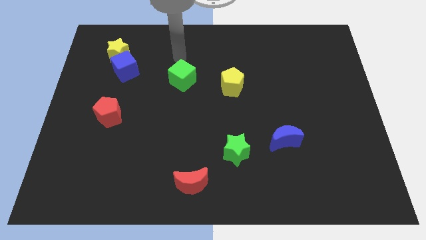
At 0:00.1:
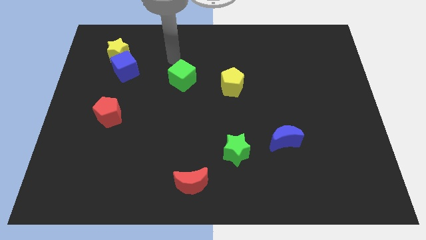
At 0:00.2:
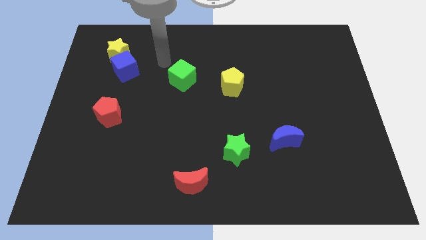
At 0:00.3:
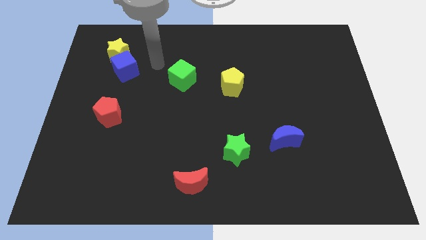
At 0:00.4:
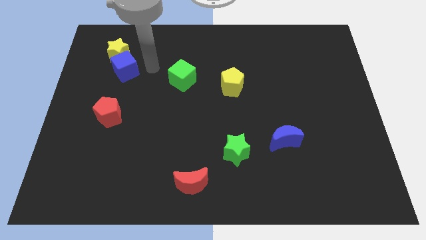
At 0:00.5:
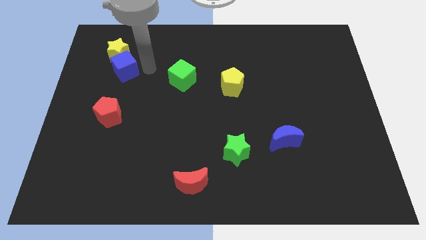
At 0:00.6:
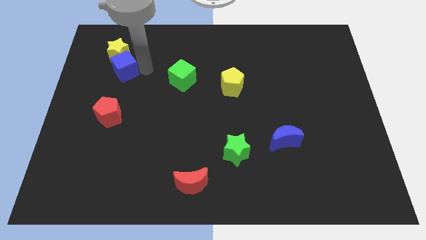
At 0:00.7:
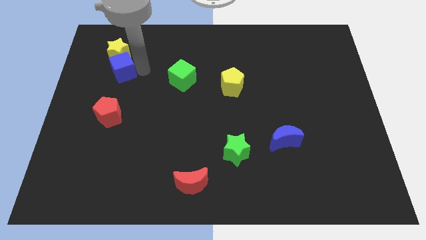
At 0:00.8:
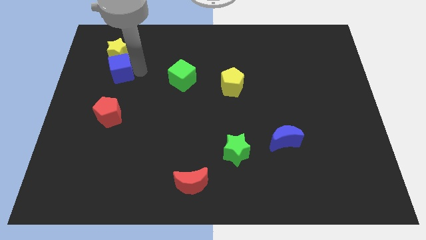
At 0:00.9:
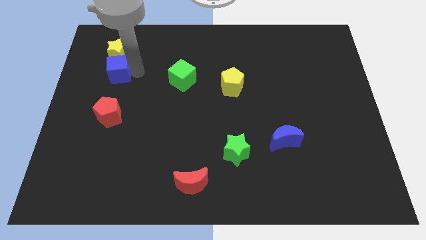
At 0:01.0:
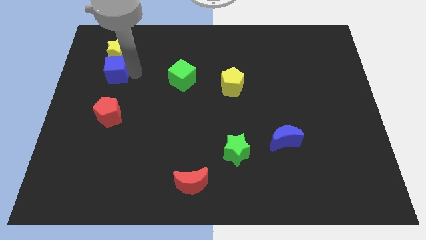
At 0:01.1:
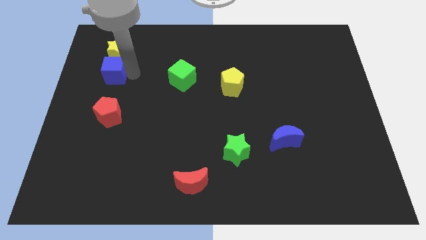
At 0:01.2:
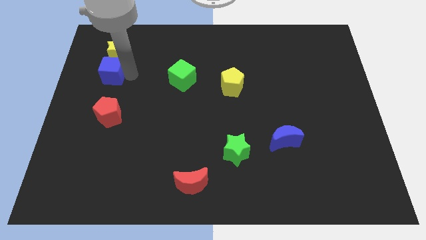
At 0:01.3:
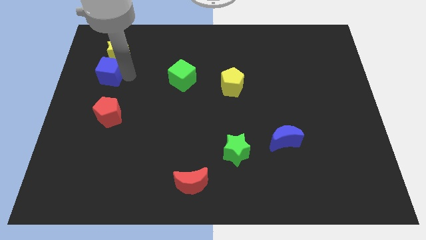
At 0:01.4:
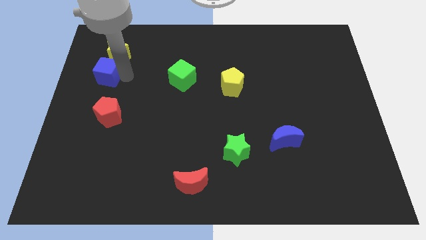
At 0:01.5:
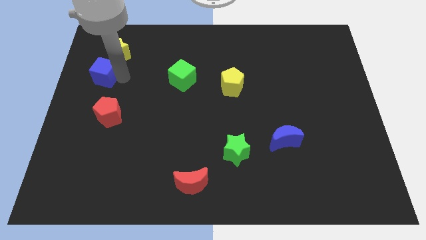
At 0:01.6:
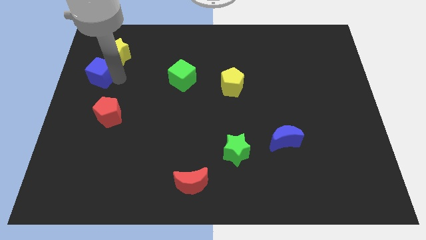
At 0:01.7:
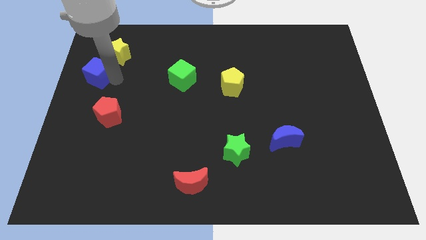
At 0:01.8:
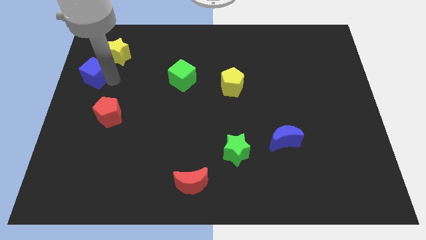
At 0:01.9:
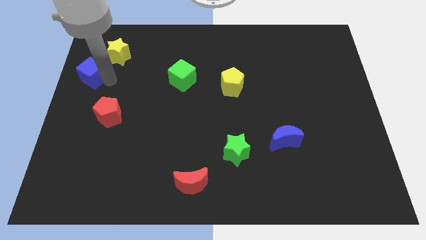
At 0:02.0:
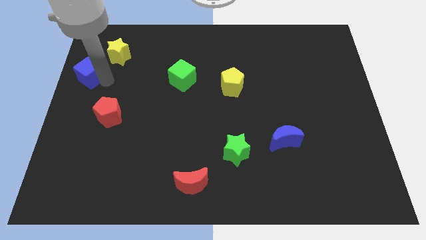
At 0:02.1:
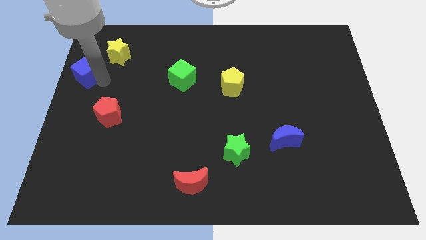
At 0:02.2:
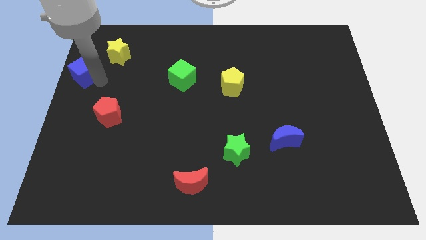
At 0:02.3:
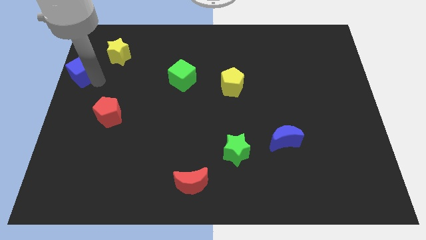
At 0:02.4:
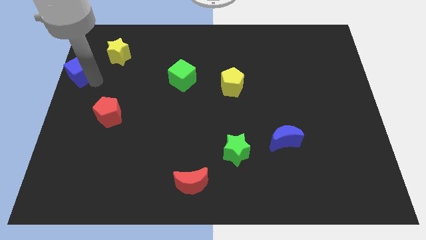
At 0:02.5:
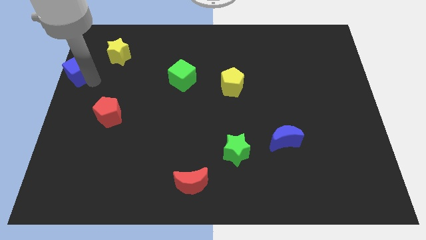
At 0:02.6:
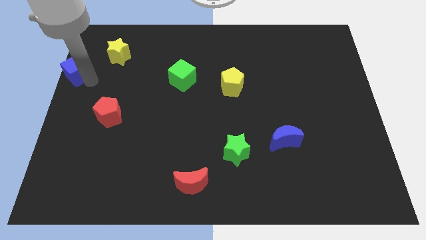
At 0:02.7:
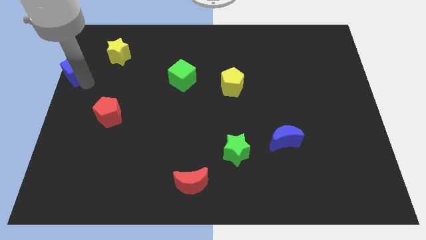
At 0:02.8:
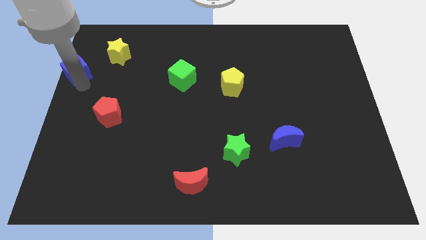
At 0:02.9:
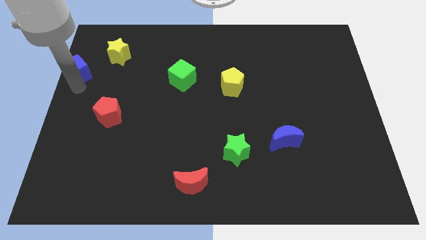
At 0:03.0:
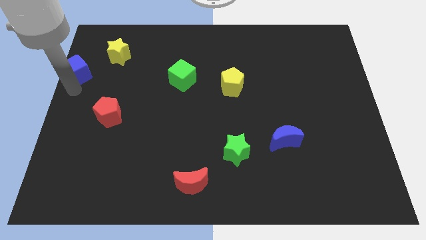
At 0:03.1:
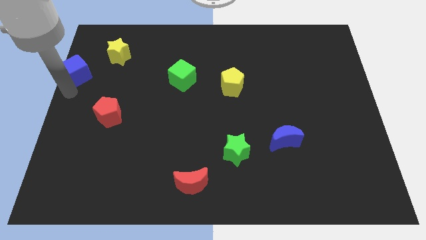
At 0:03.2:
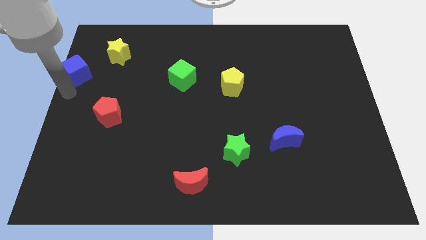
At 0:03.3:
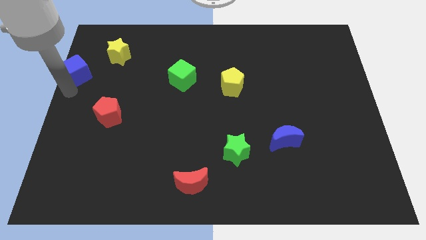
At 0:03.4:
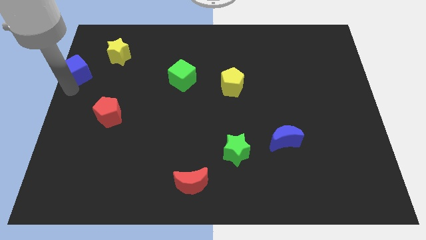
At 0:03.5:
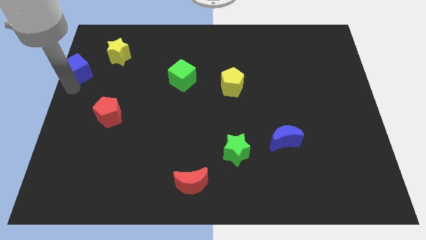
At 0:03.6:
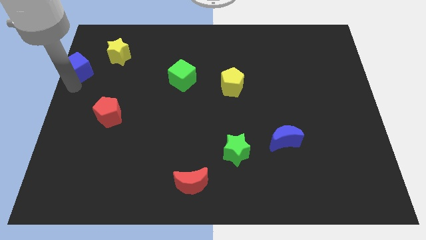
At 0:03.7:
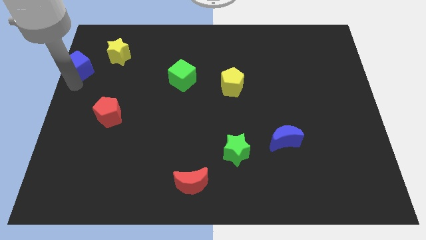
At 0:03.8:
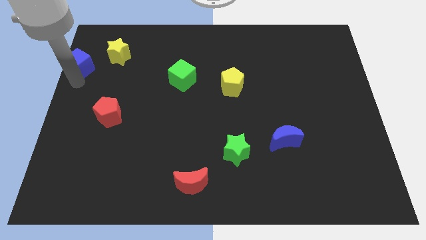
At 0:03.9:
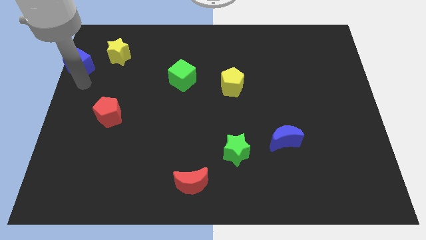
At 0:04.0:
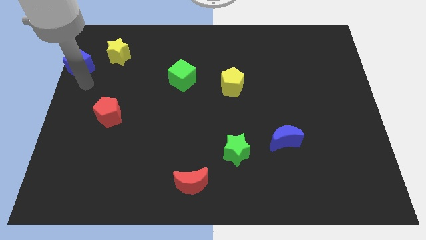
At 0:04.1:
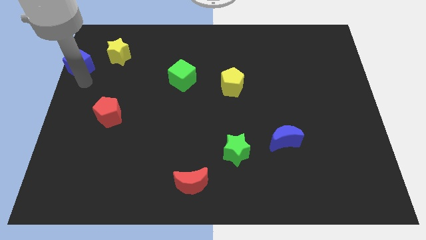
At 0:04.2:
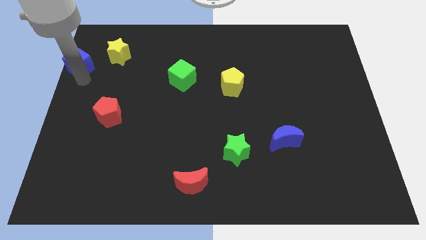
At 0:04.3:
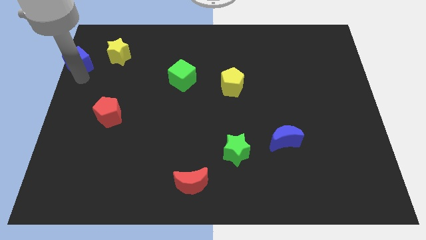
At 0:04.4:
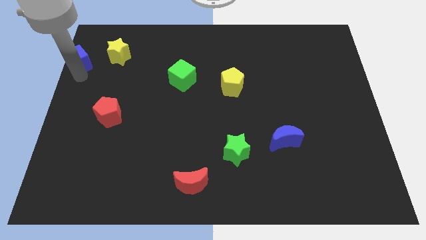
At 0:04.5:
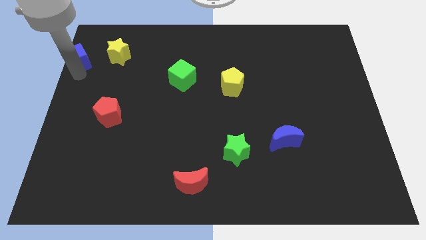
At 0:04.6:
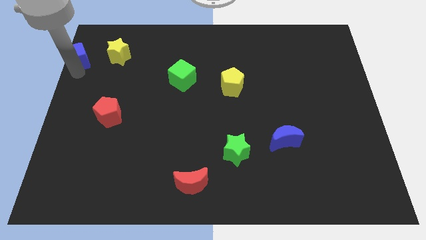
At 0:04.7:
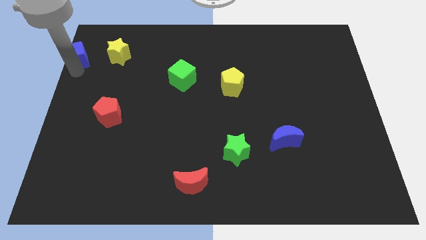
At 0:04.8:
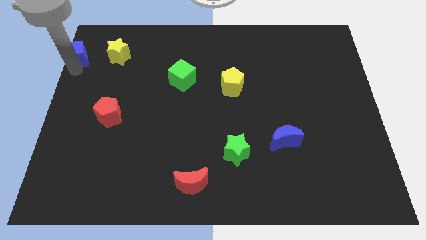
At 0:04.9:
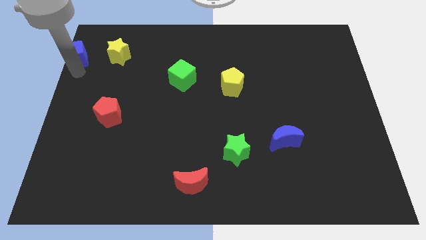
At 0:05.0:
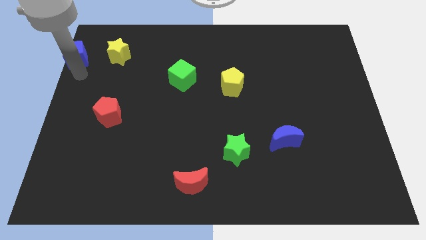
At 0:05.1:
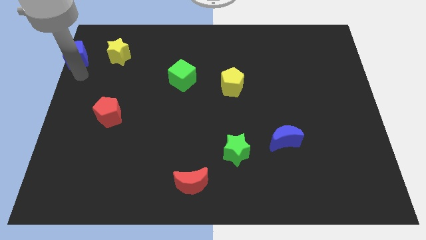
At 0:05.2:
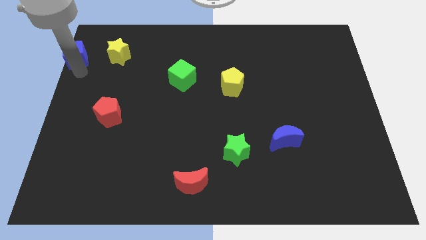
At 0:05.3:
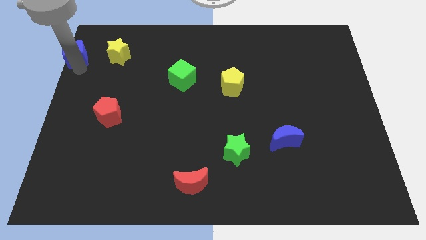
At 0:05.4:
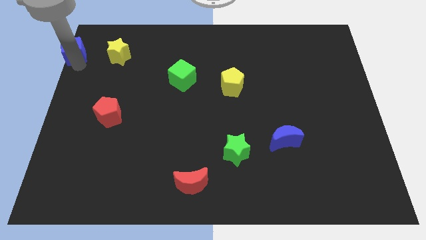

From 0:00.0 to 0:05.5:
push the blue cube to the upper left corner

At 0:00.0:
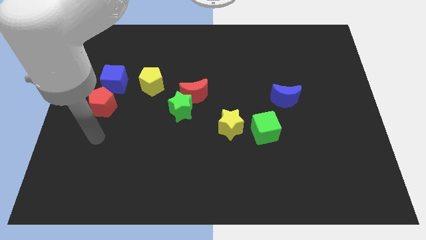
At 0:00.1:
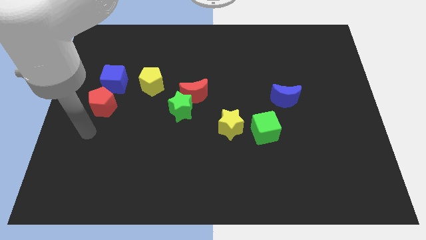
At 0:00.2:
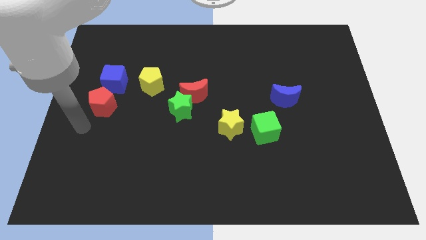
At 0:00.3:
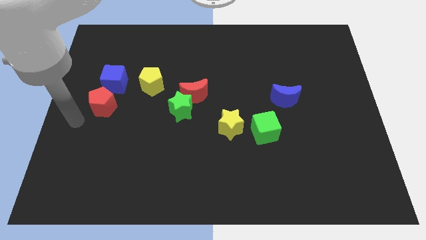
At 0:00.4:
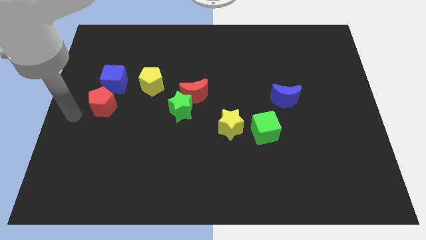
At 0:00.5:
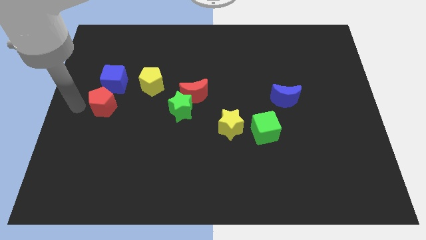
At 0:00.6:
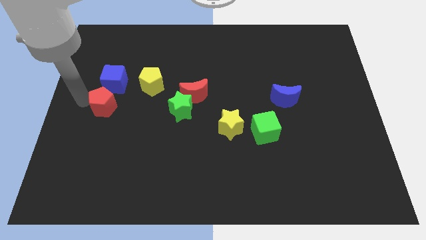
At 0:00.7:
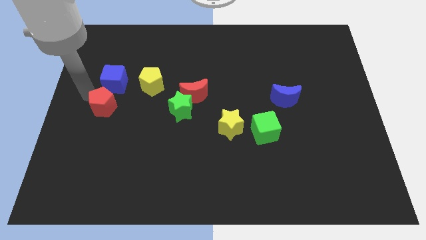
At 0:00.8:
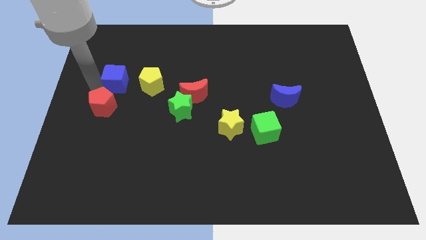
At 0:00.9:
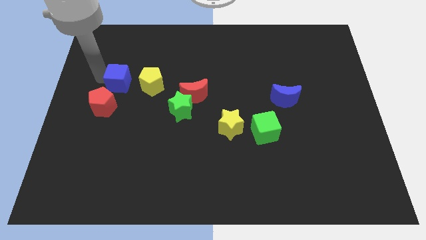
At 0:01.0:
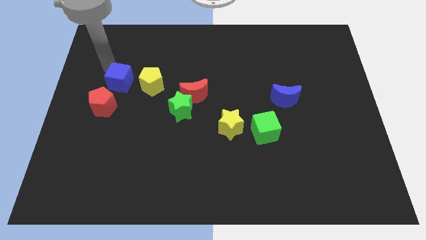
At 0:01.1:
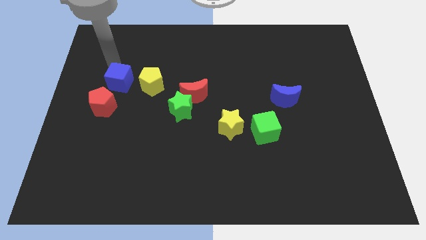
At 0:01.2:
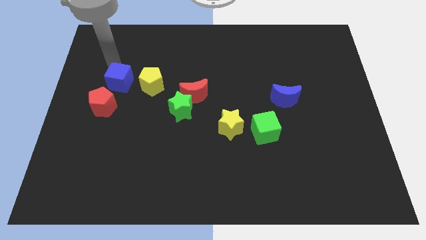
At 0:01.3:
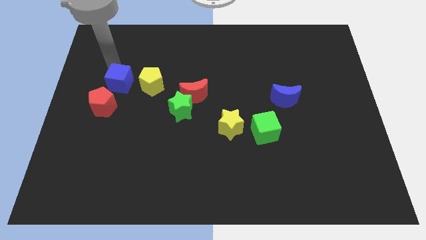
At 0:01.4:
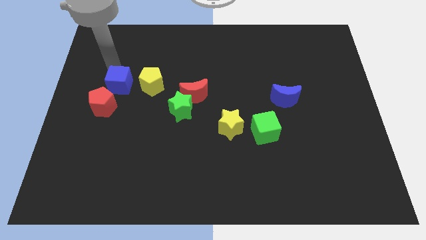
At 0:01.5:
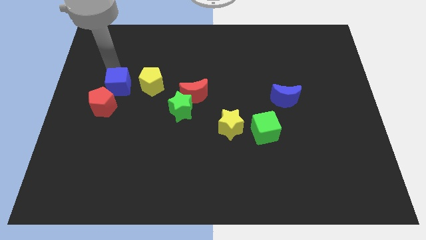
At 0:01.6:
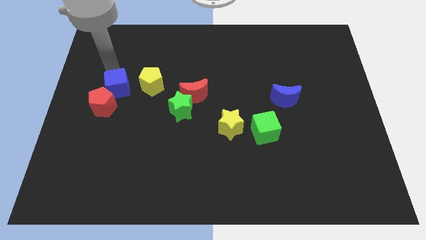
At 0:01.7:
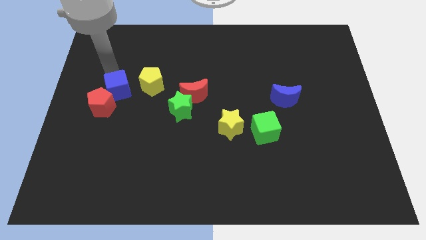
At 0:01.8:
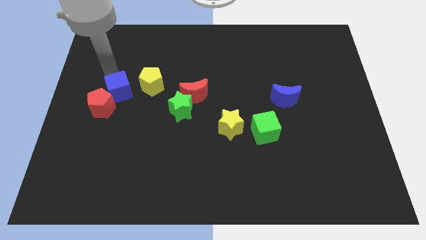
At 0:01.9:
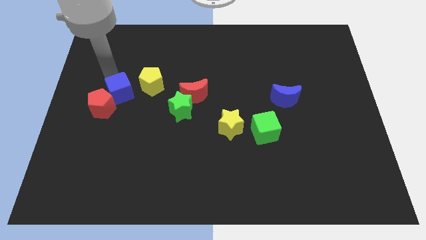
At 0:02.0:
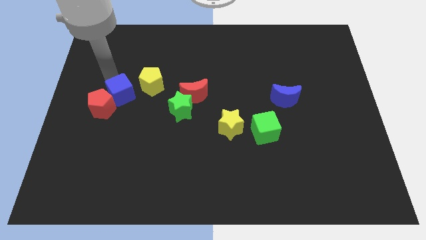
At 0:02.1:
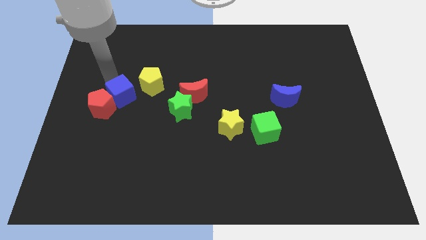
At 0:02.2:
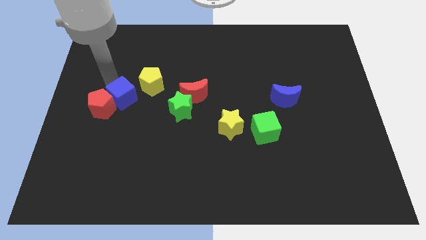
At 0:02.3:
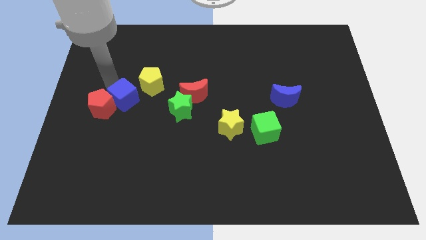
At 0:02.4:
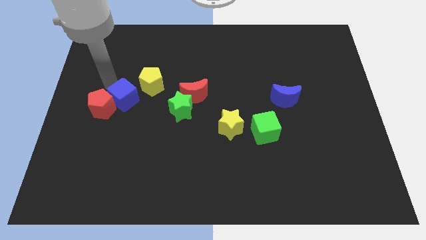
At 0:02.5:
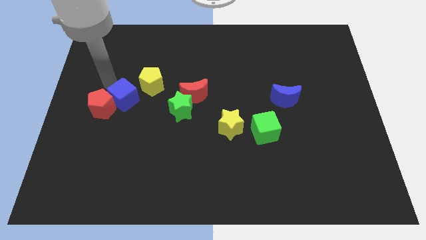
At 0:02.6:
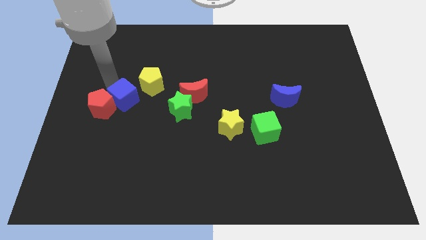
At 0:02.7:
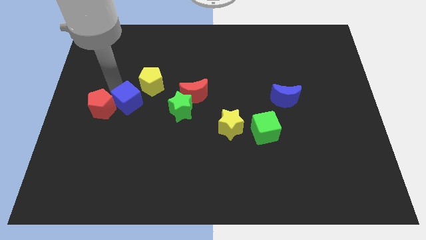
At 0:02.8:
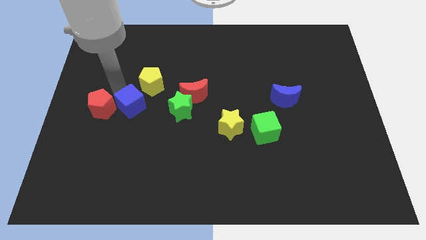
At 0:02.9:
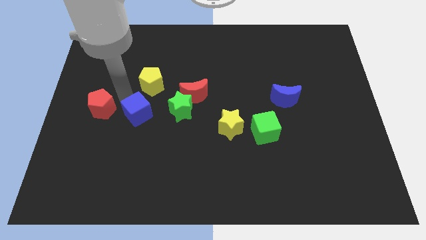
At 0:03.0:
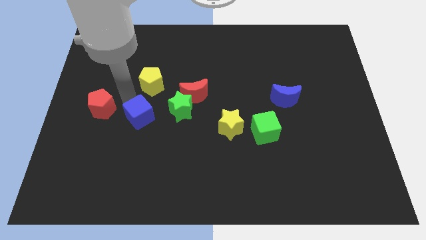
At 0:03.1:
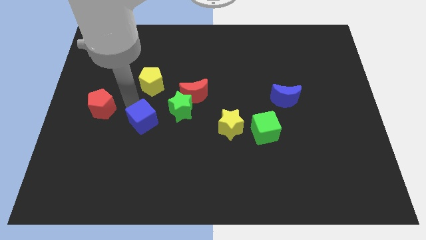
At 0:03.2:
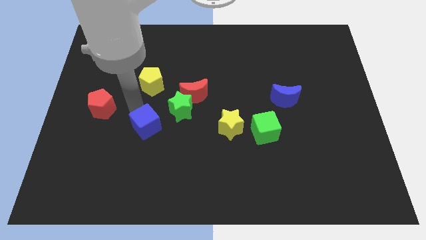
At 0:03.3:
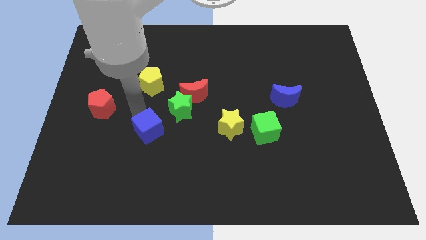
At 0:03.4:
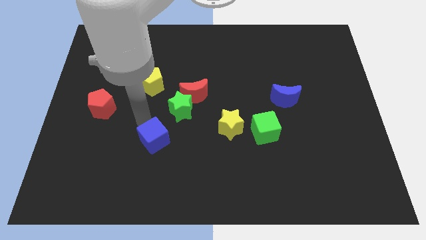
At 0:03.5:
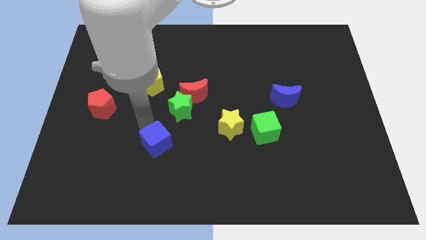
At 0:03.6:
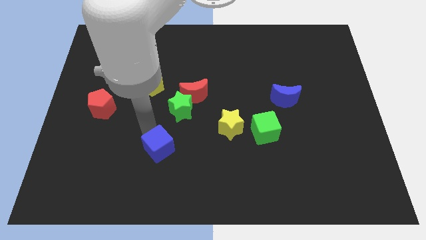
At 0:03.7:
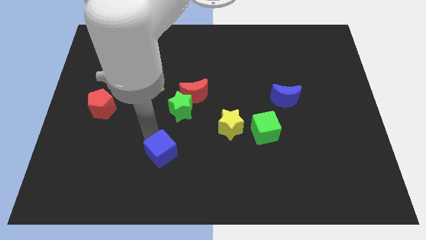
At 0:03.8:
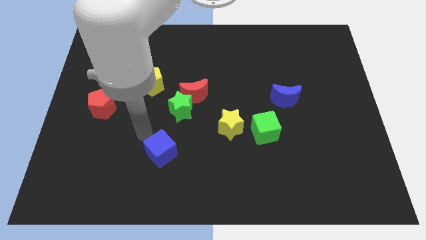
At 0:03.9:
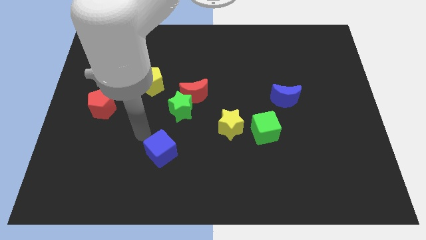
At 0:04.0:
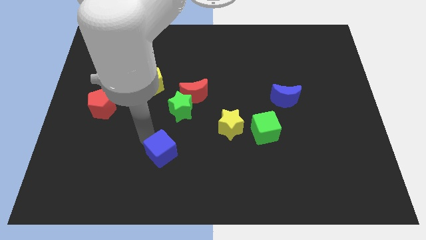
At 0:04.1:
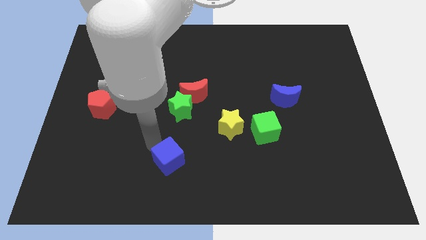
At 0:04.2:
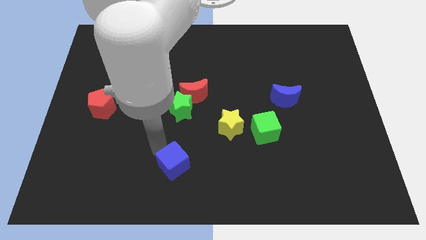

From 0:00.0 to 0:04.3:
put the blue cube to the bottom
